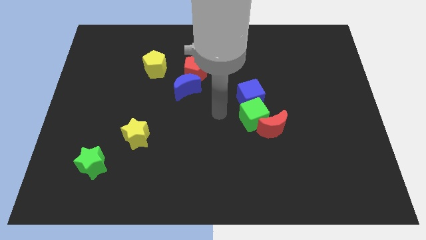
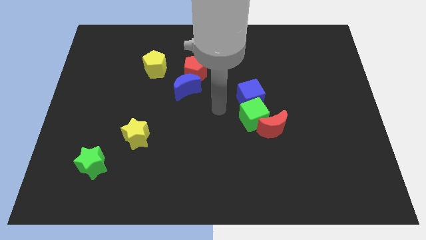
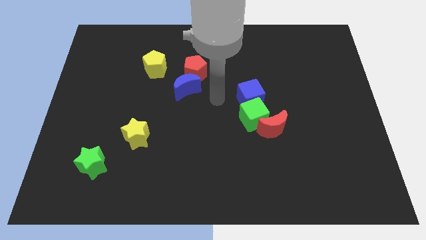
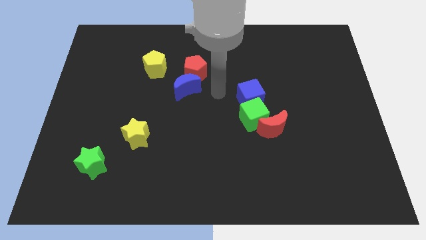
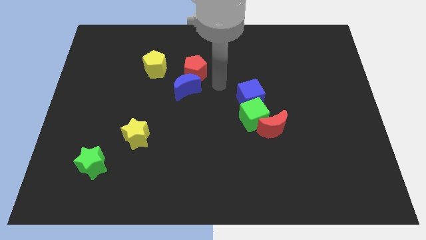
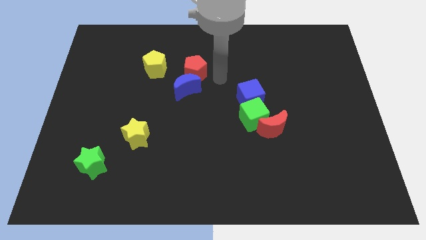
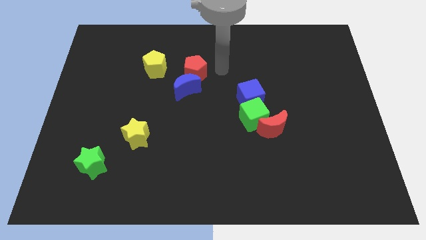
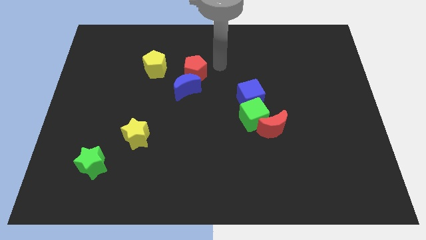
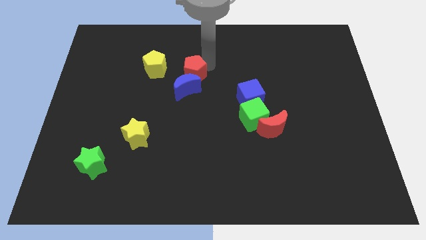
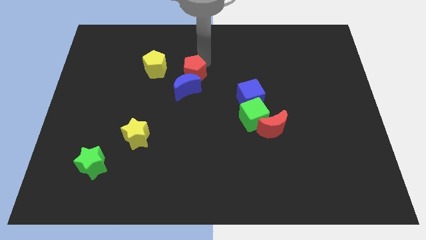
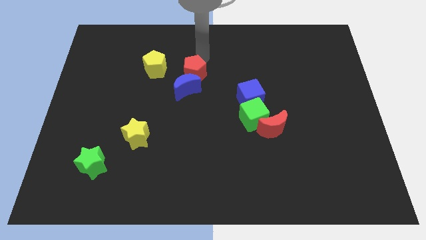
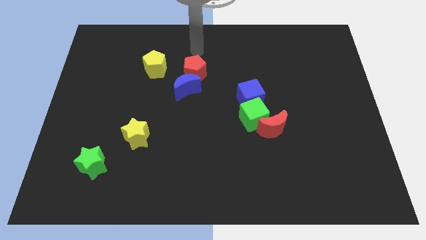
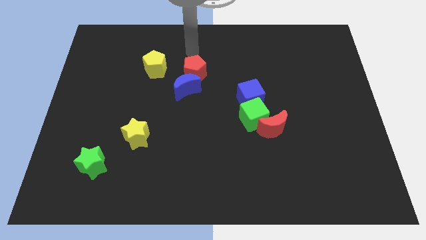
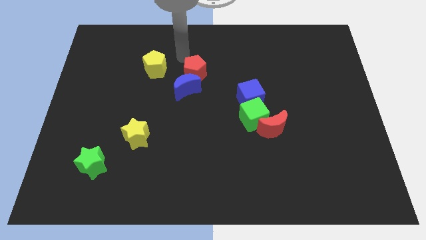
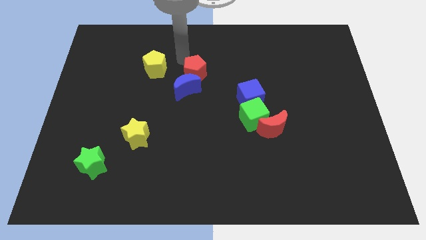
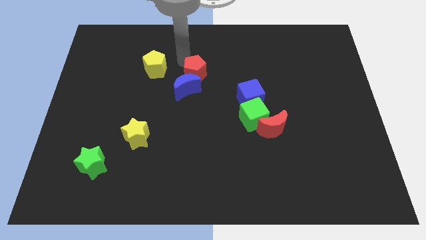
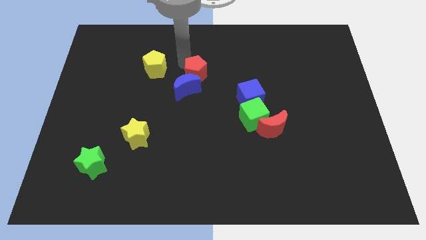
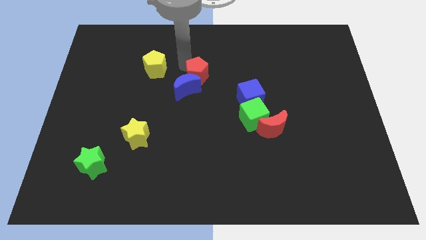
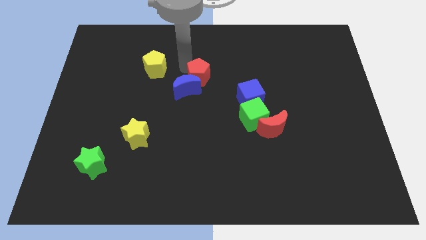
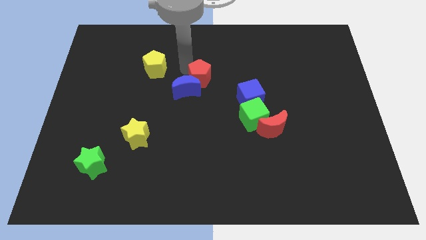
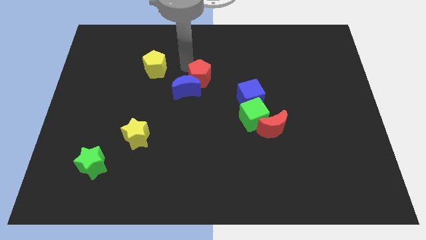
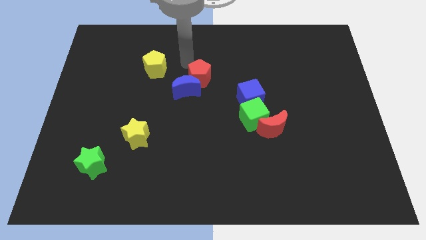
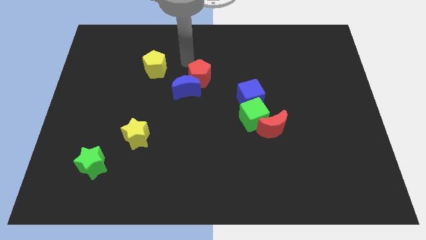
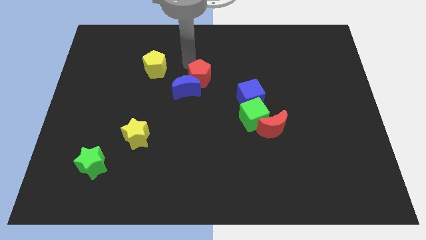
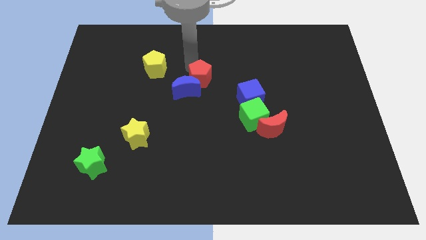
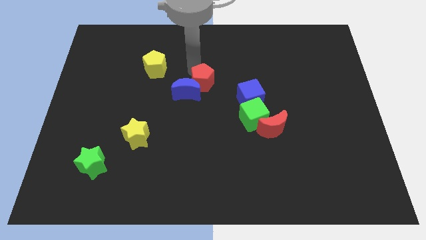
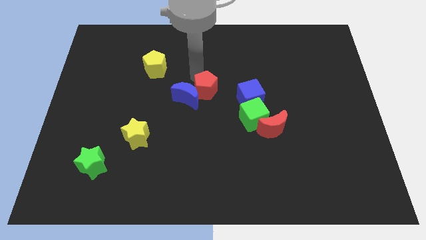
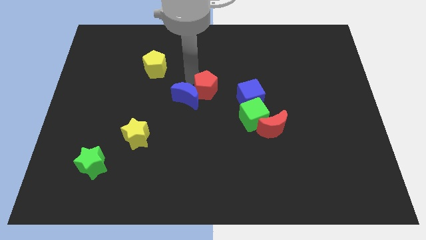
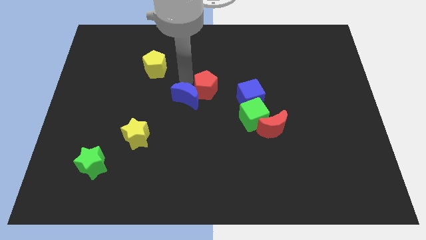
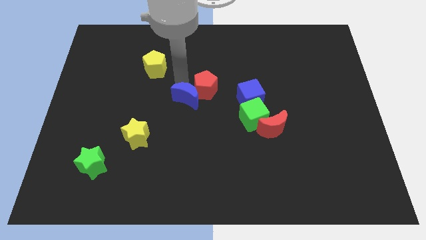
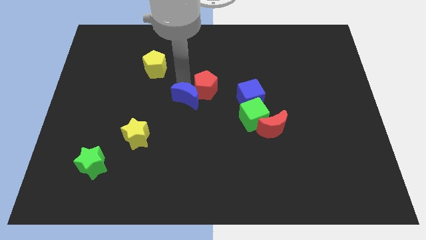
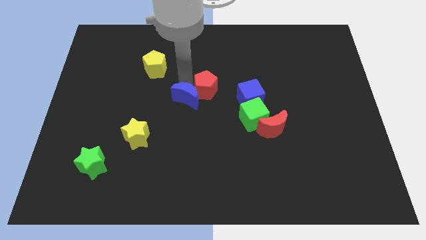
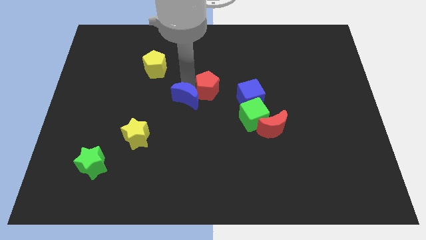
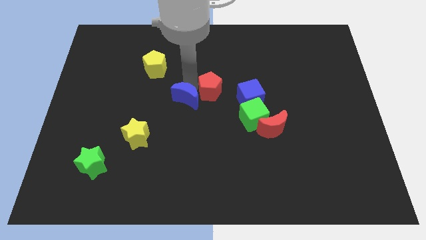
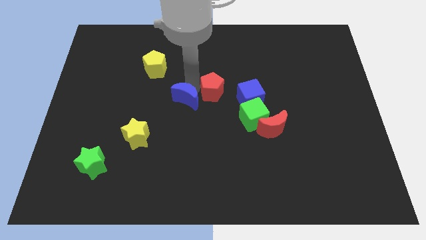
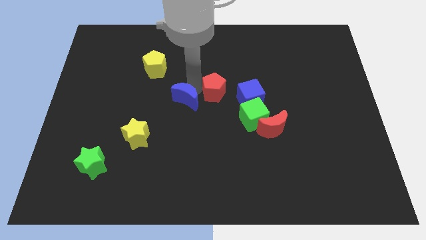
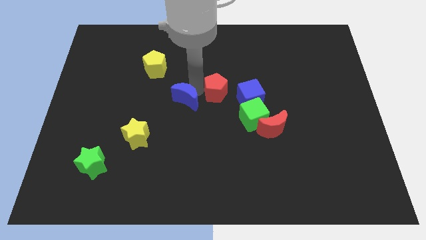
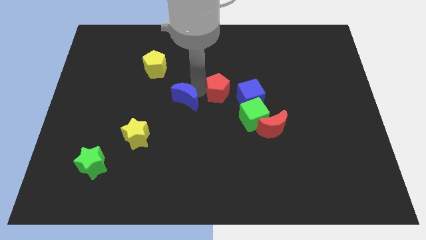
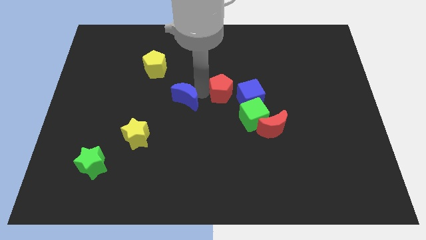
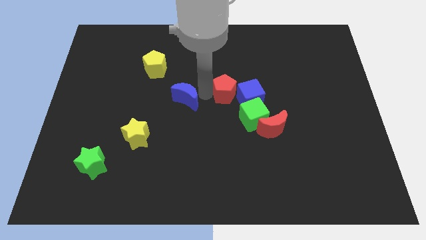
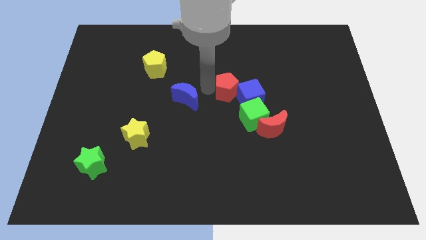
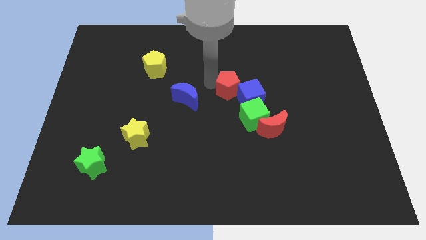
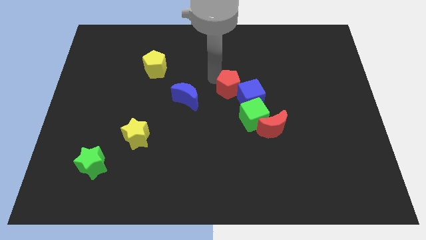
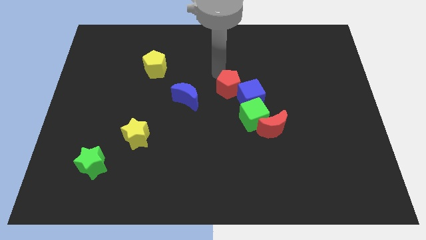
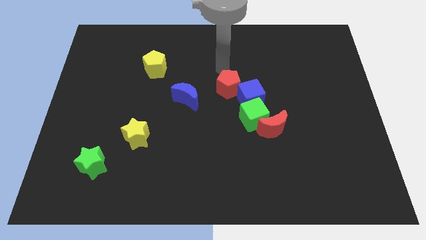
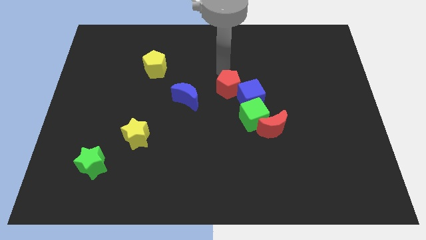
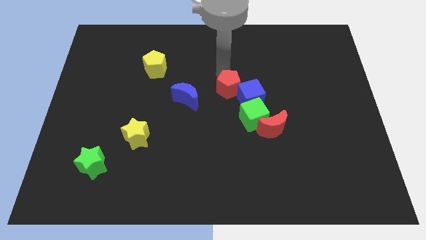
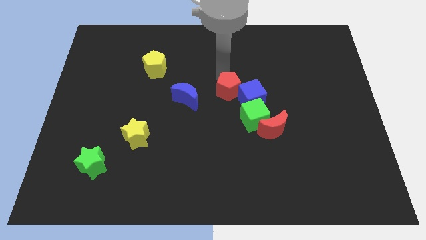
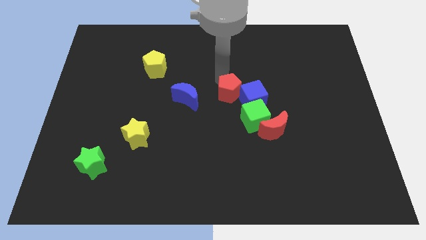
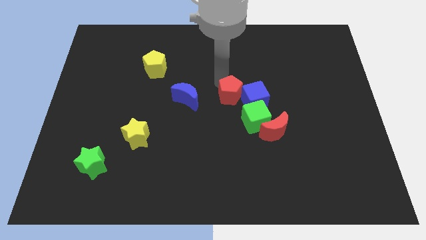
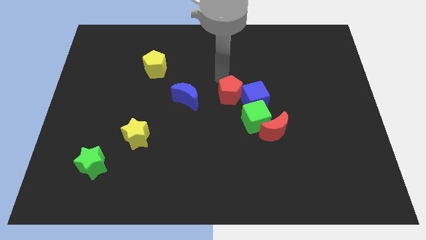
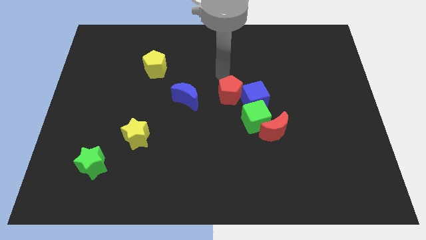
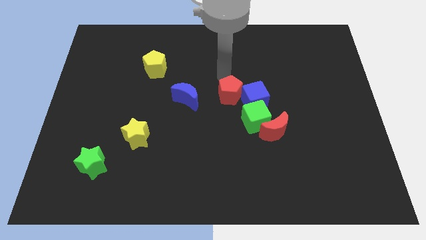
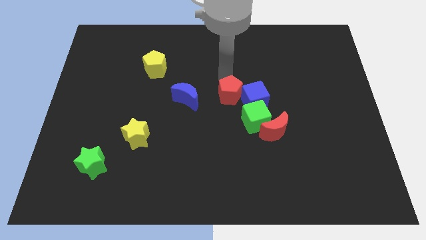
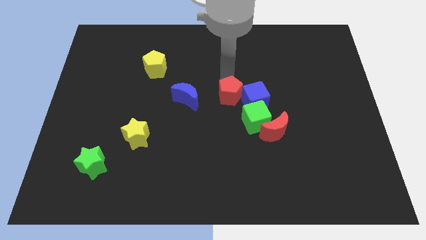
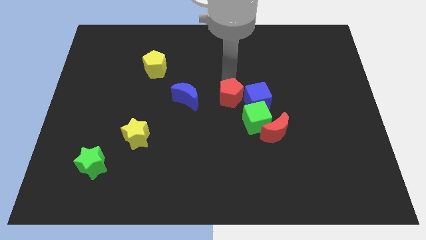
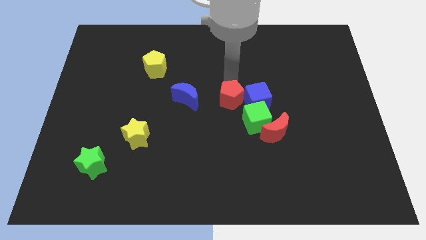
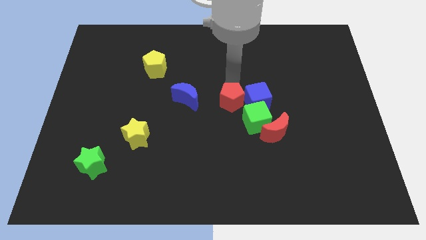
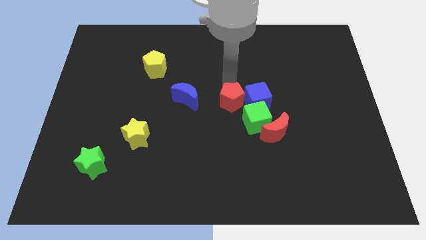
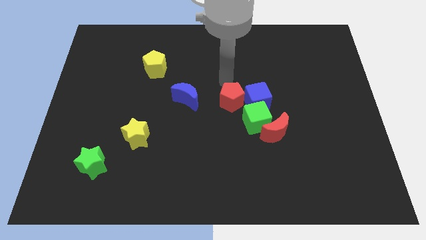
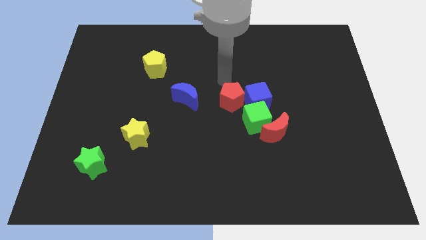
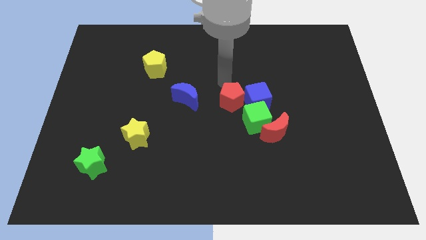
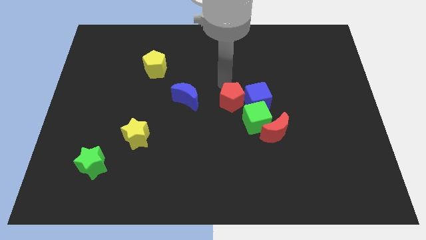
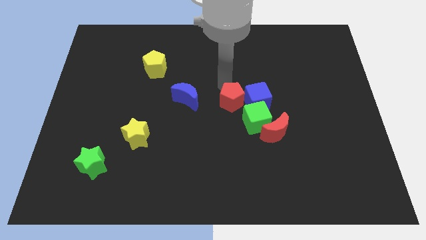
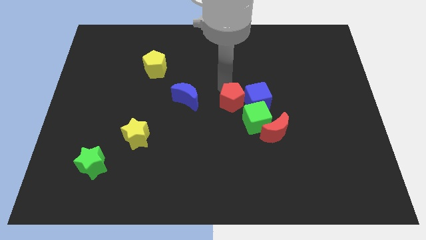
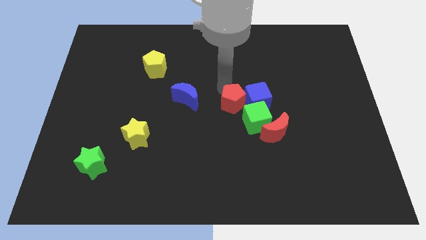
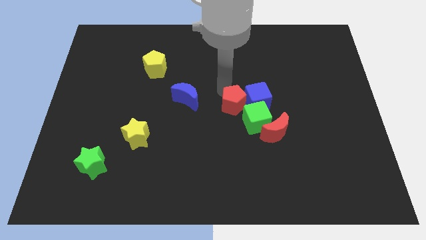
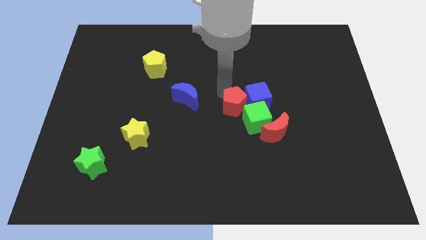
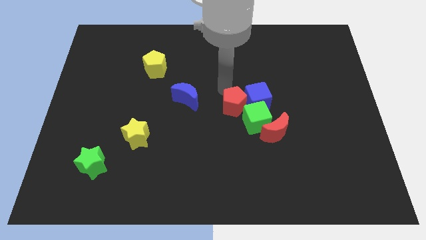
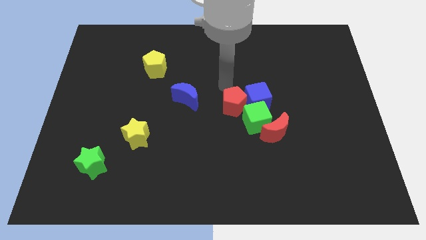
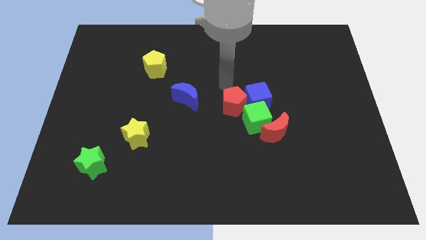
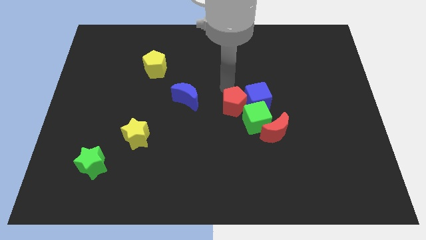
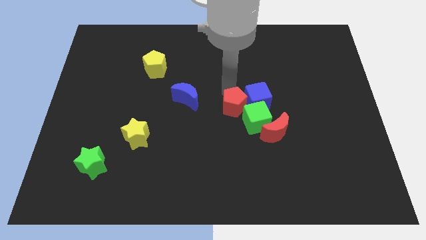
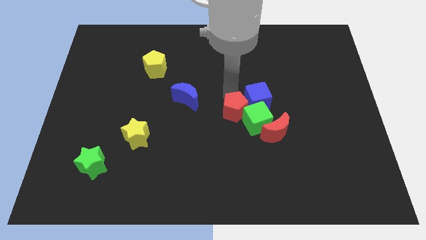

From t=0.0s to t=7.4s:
push the red pentagon towards the green cube
